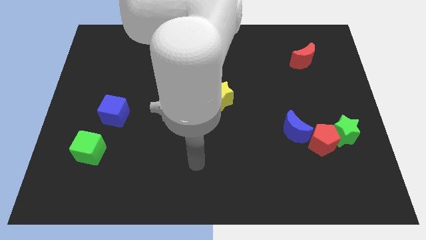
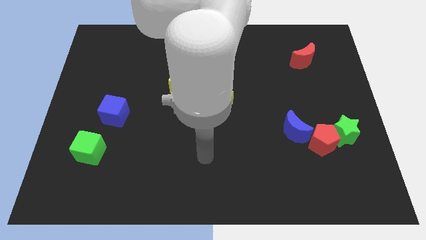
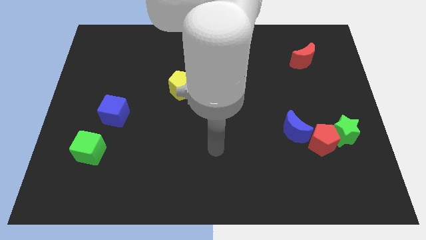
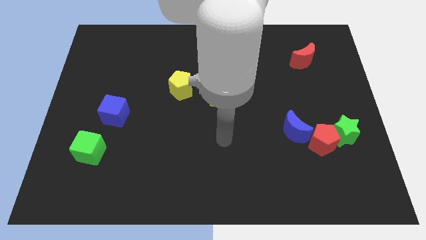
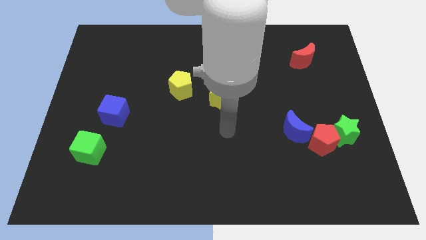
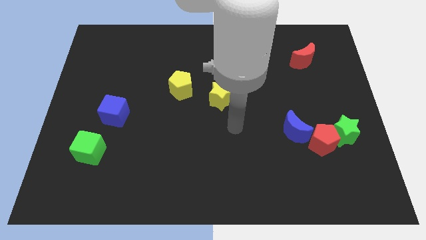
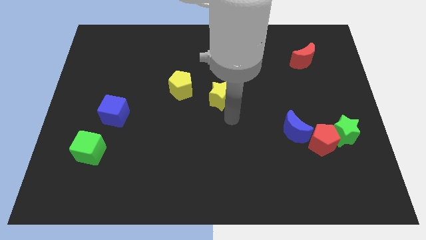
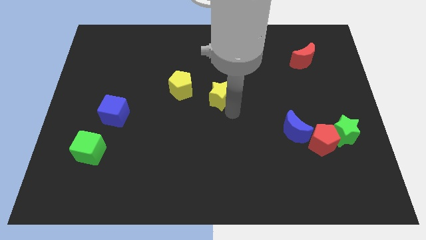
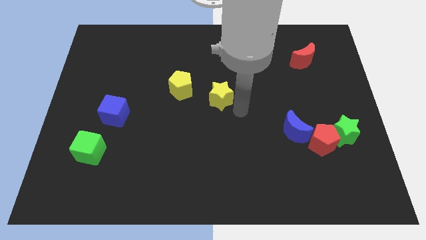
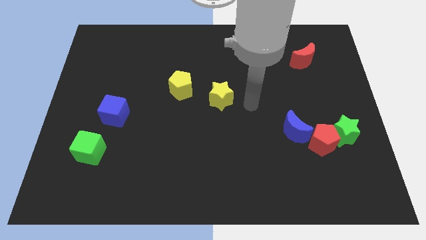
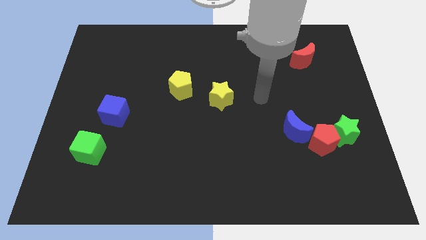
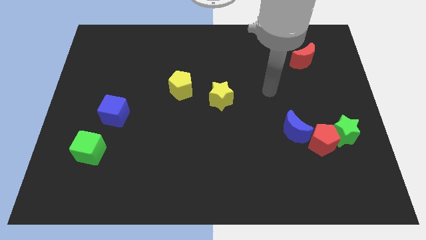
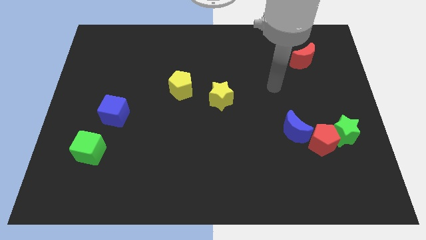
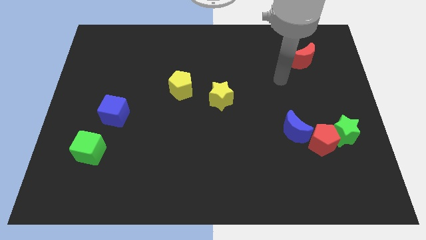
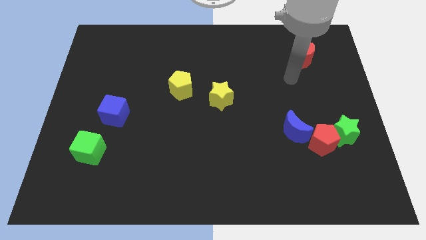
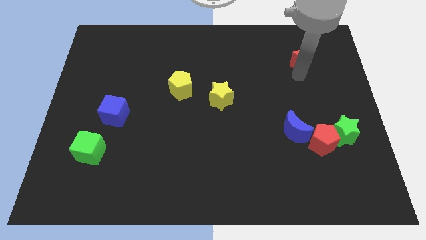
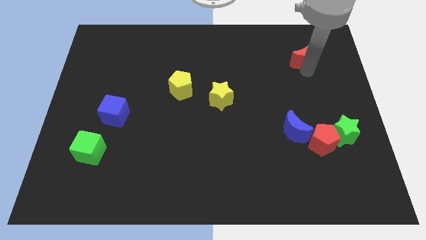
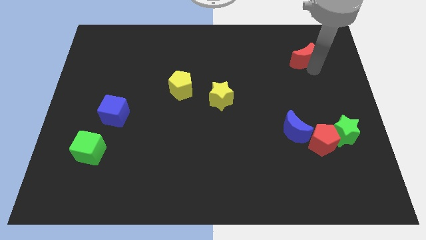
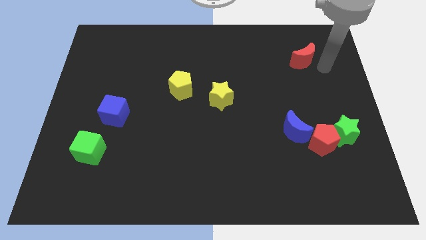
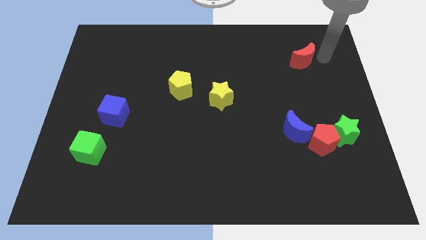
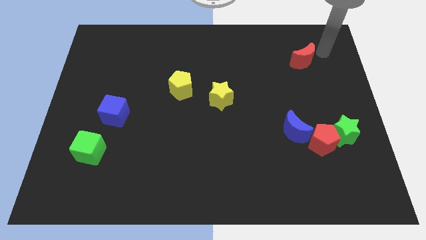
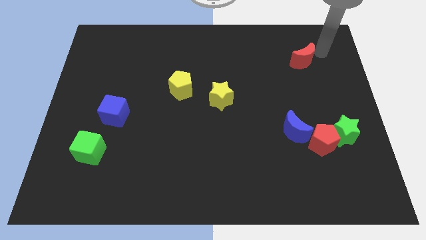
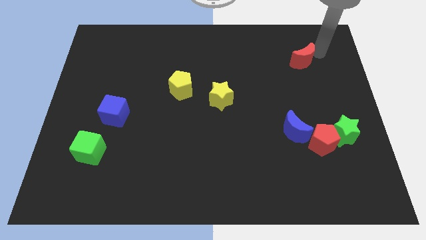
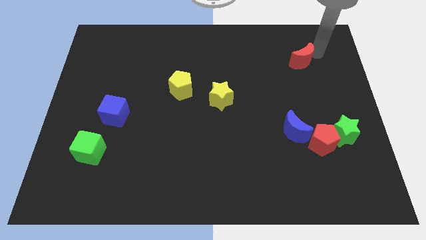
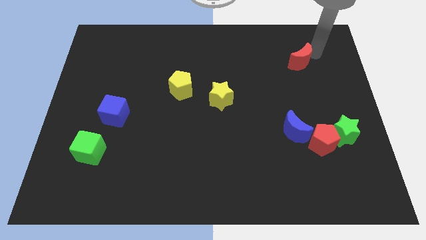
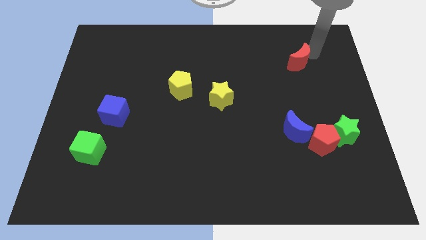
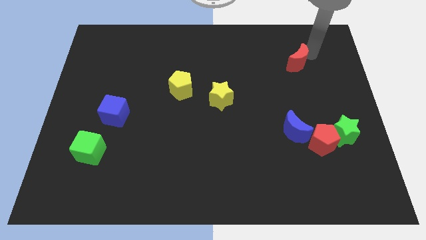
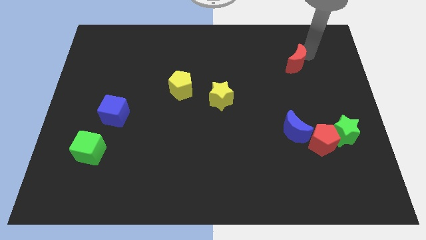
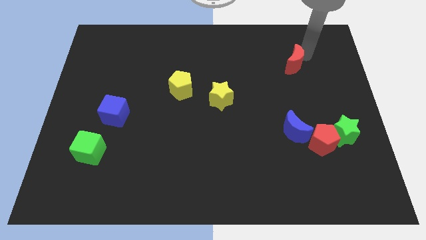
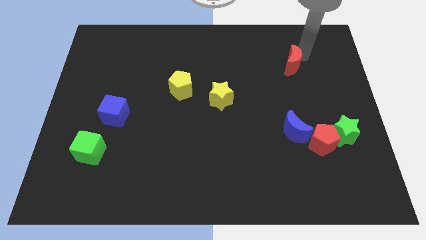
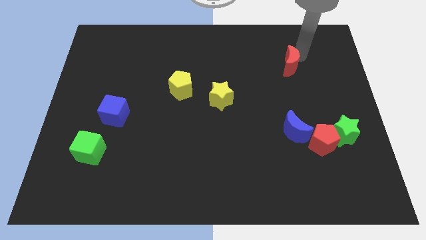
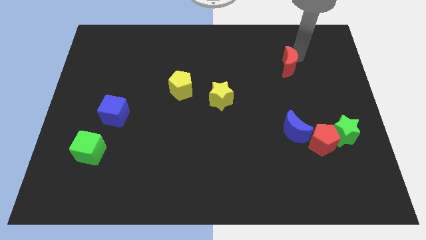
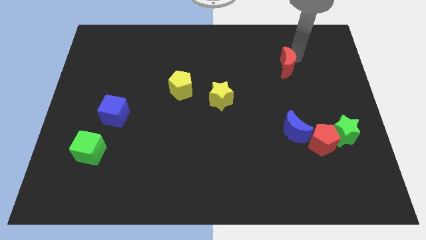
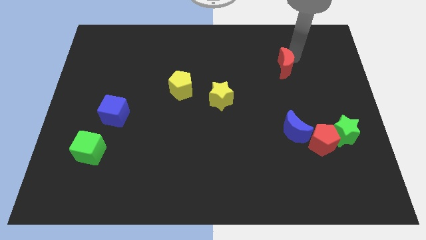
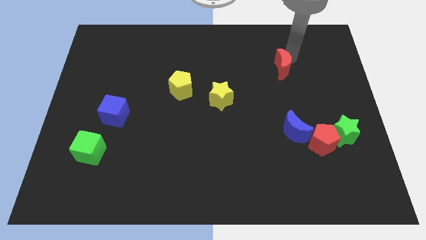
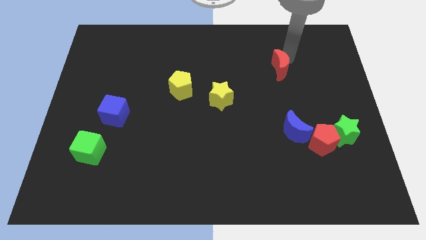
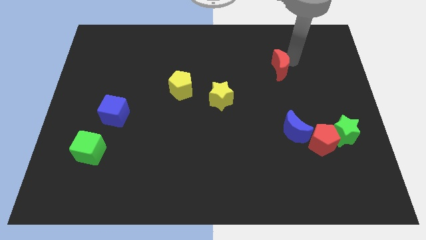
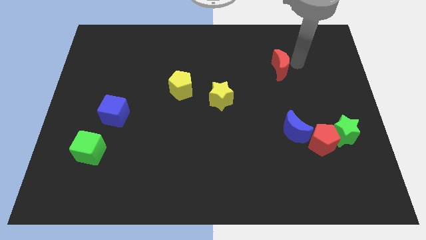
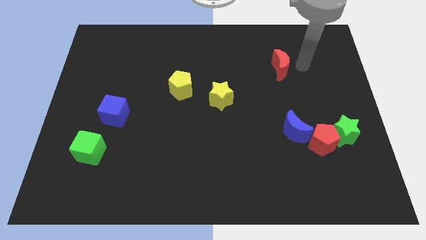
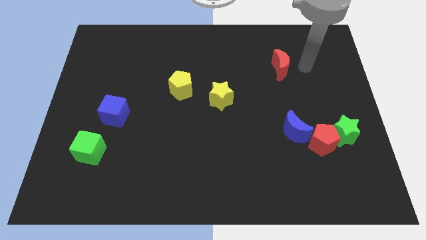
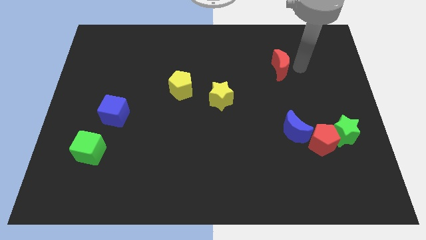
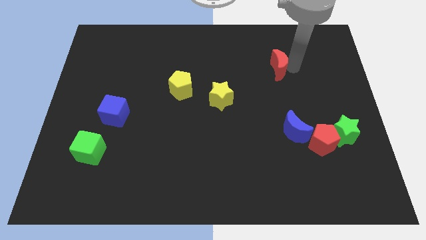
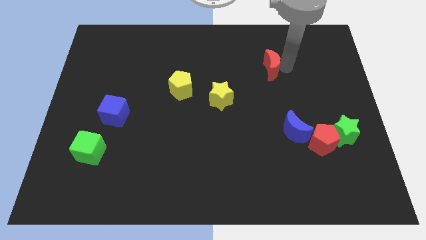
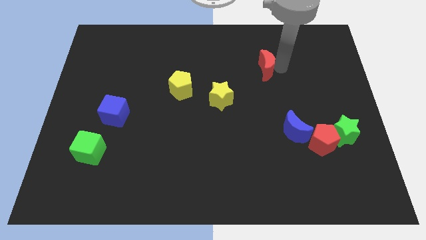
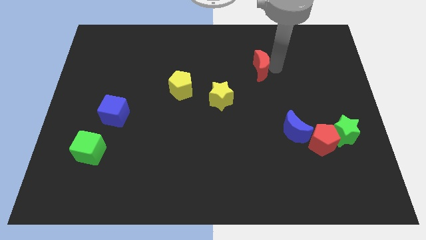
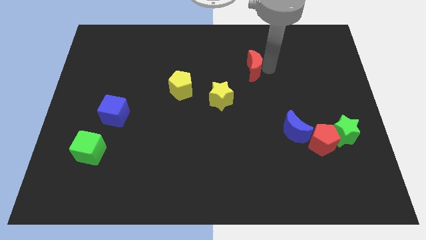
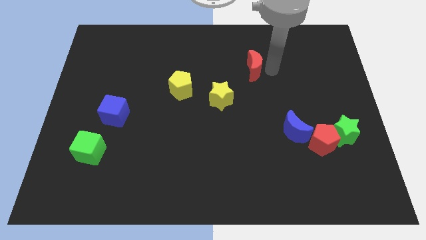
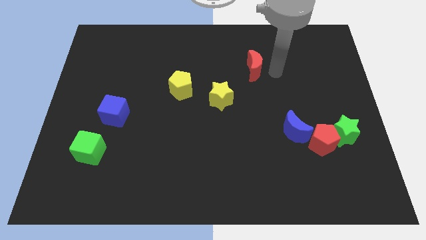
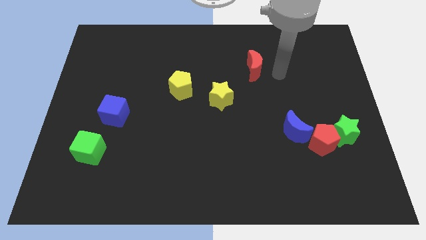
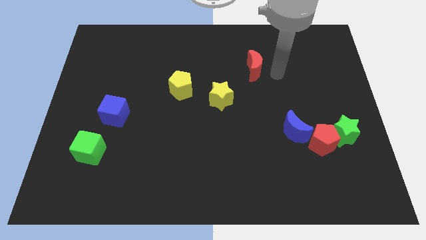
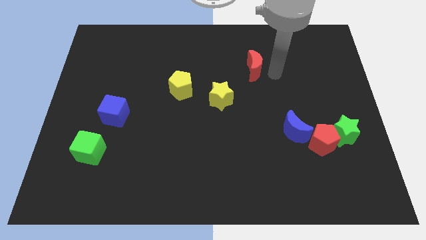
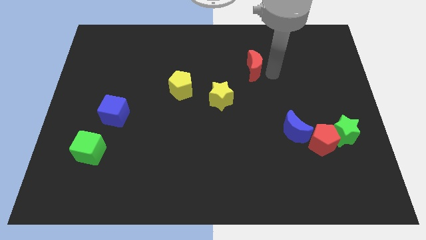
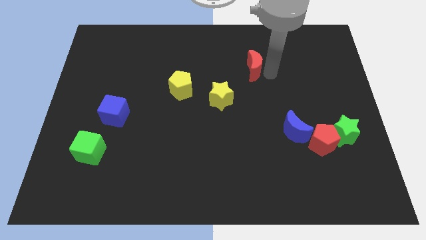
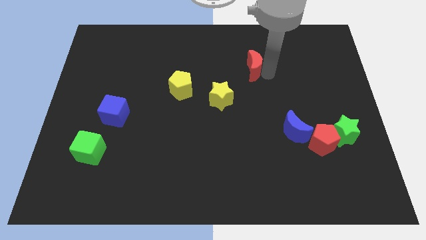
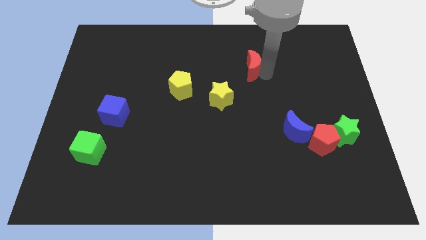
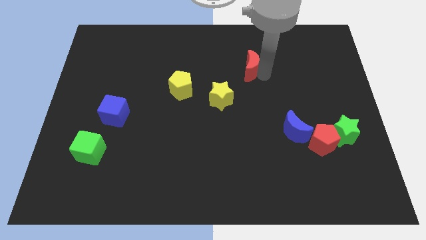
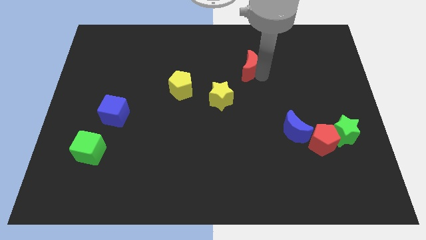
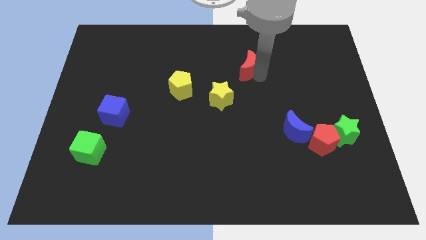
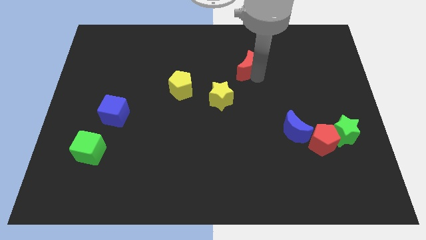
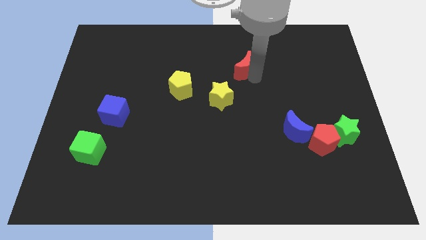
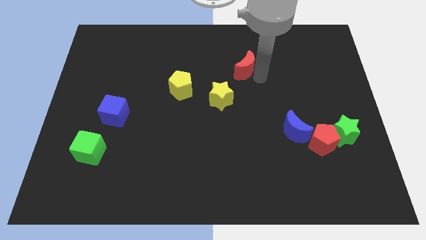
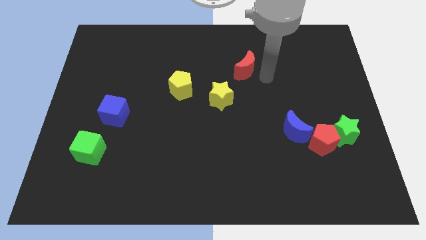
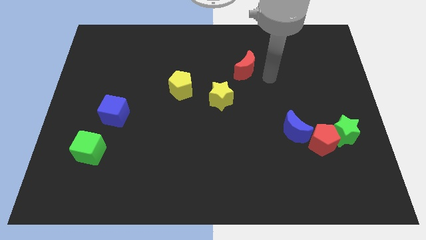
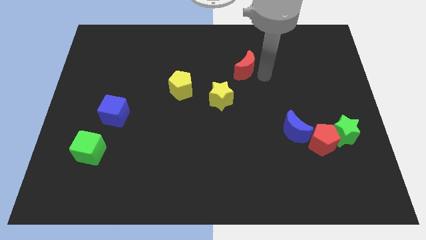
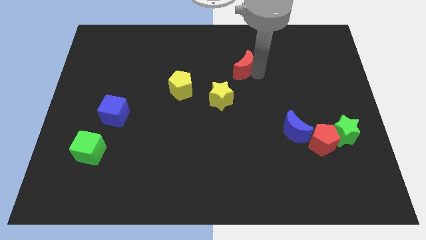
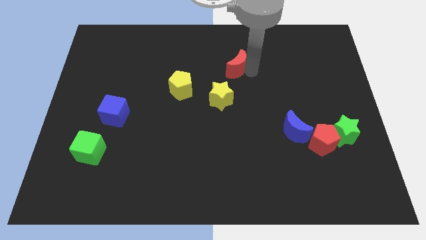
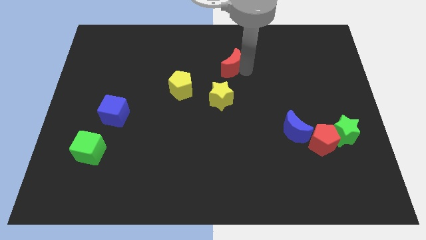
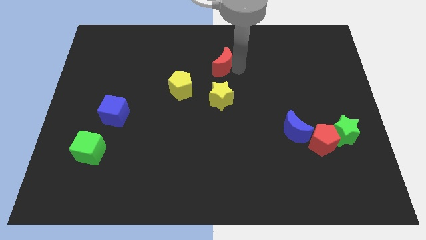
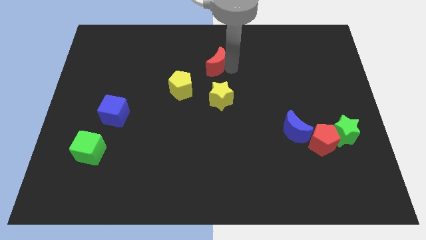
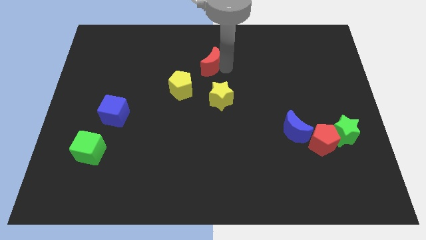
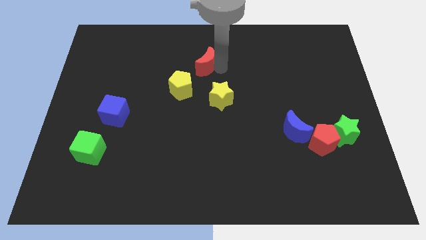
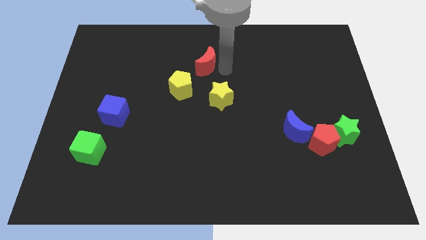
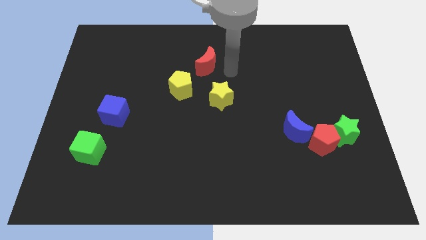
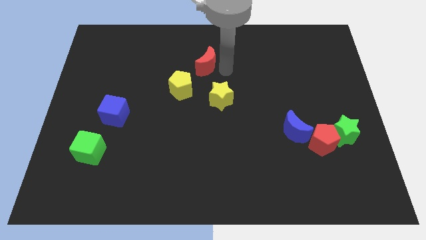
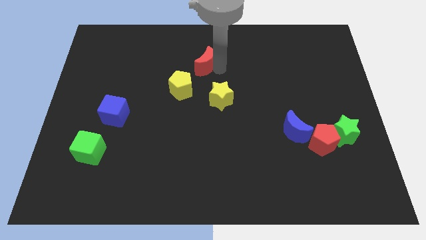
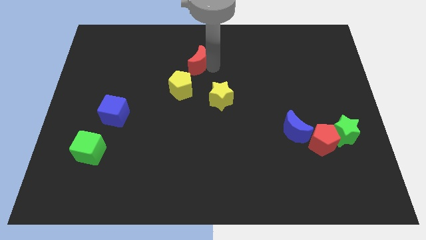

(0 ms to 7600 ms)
move the red moon above the yellow pentagon
